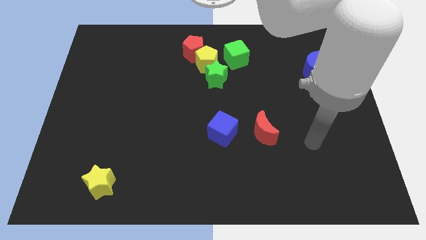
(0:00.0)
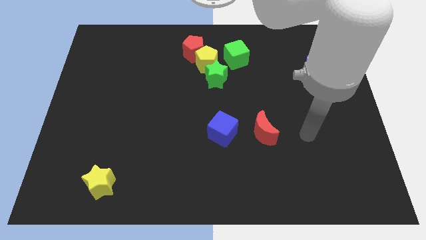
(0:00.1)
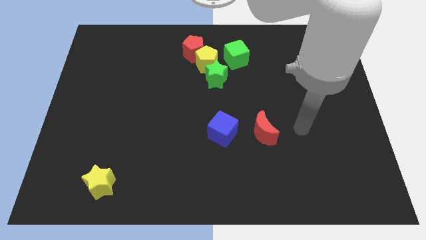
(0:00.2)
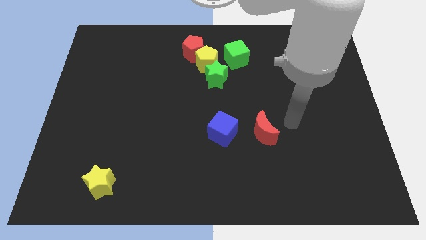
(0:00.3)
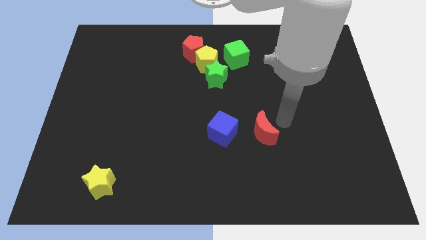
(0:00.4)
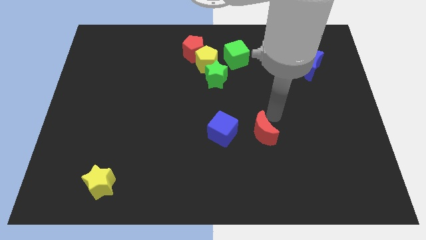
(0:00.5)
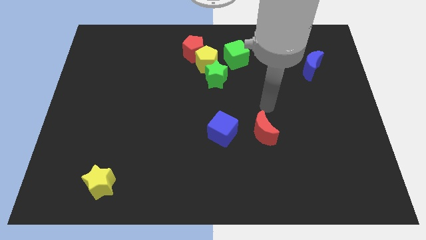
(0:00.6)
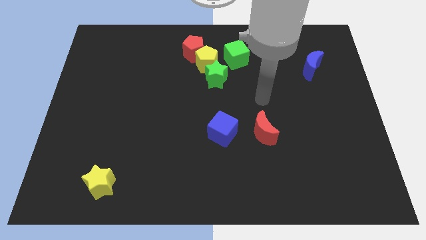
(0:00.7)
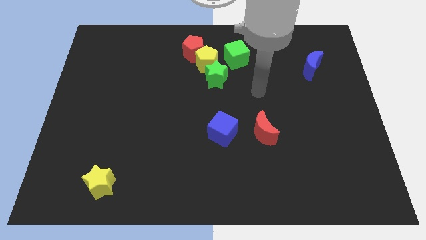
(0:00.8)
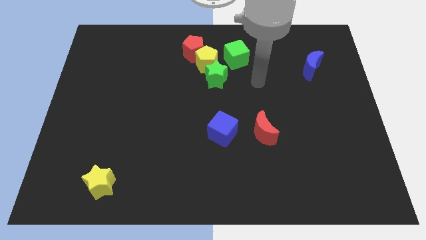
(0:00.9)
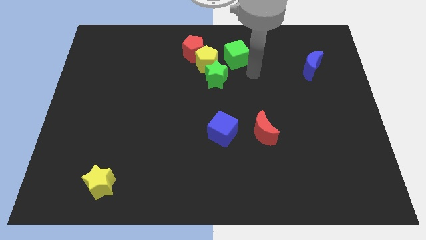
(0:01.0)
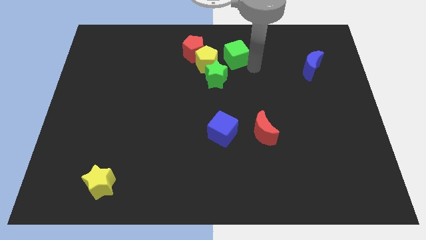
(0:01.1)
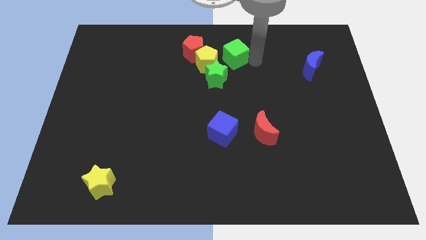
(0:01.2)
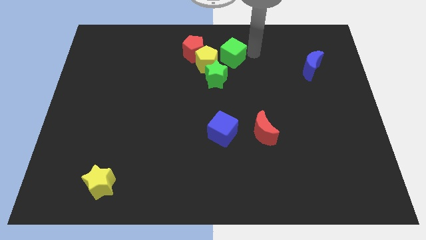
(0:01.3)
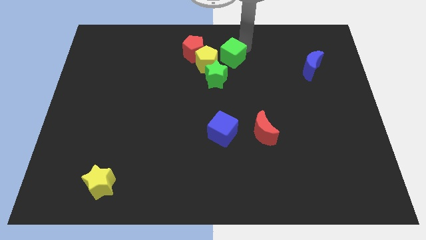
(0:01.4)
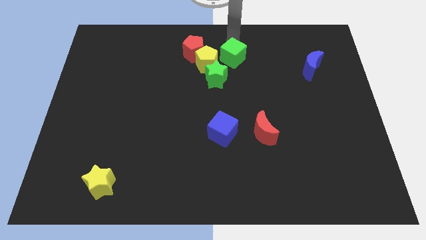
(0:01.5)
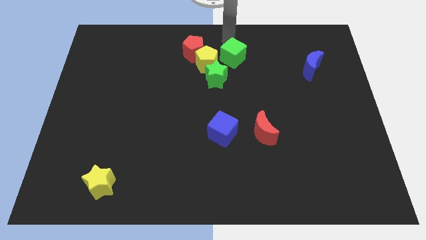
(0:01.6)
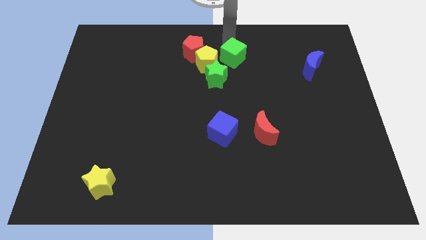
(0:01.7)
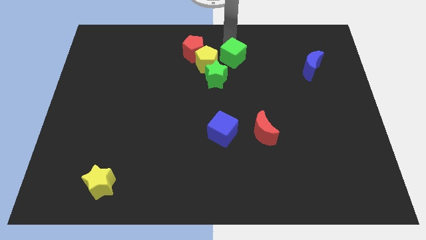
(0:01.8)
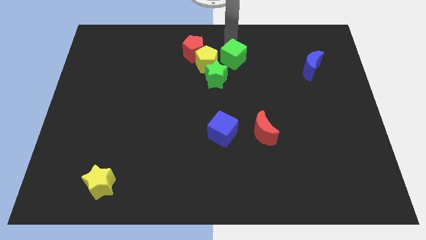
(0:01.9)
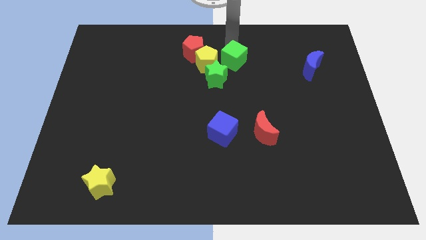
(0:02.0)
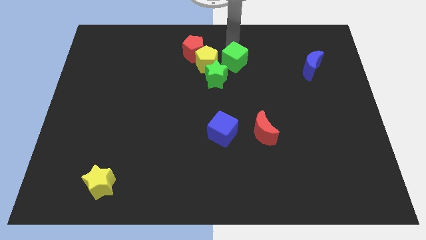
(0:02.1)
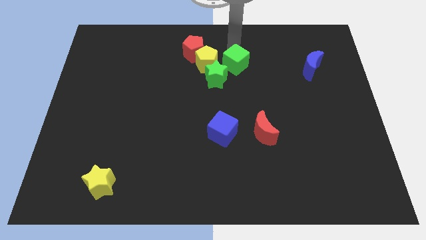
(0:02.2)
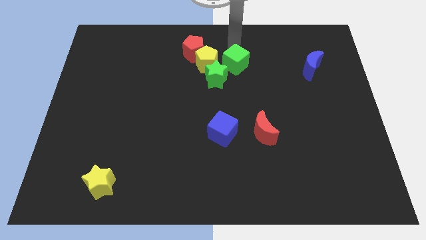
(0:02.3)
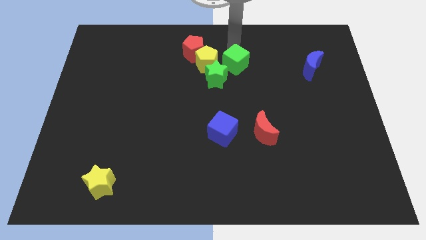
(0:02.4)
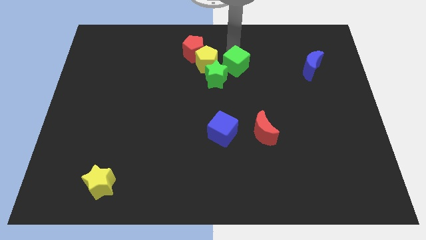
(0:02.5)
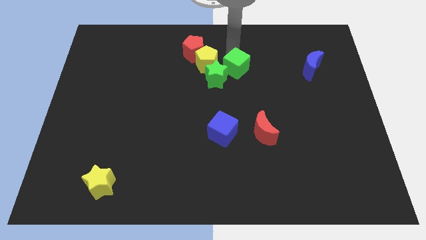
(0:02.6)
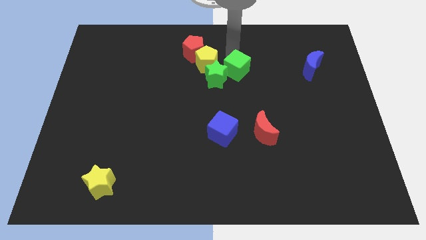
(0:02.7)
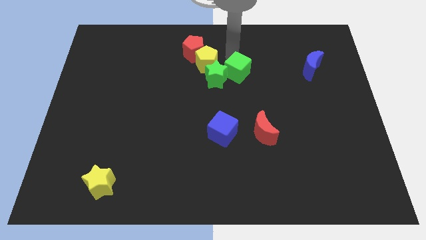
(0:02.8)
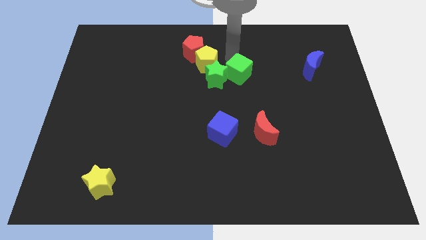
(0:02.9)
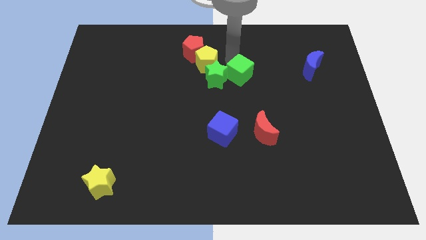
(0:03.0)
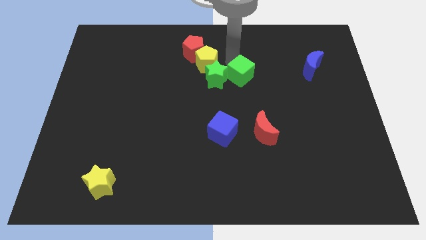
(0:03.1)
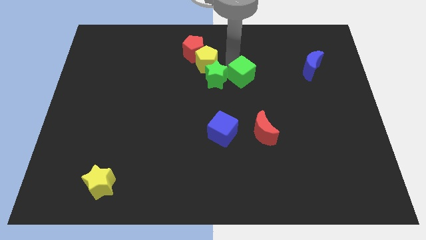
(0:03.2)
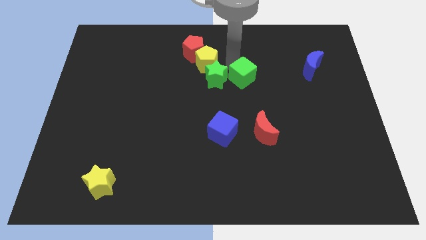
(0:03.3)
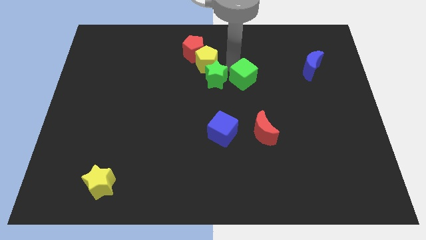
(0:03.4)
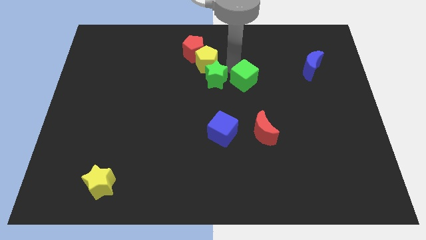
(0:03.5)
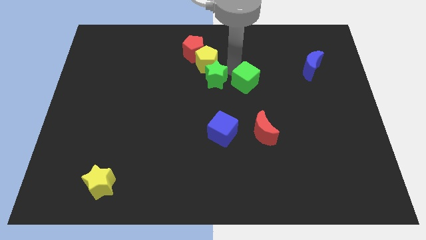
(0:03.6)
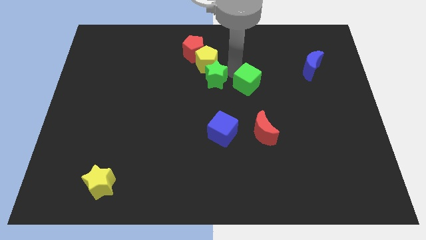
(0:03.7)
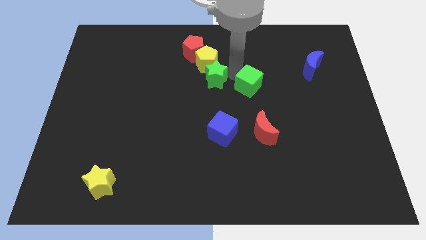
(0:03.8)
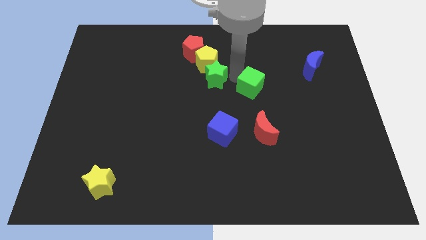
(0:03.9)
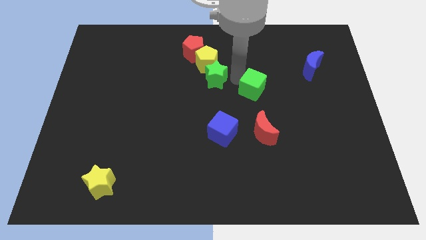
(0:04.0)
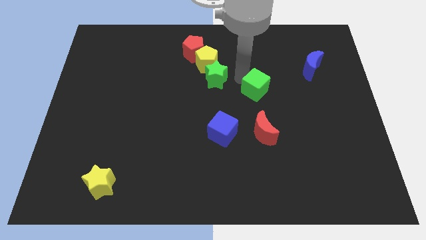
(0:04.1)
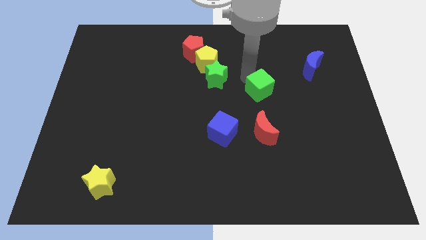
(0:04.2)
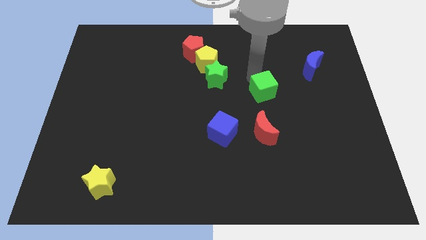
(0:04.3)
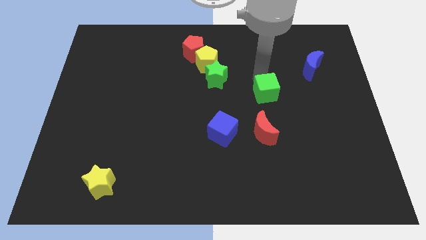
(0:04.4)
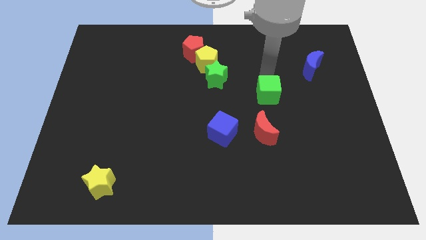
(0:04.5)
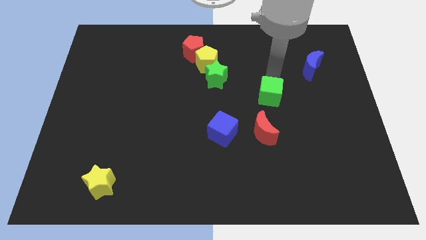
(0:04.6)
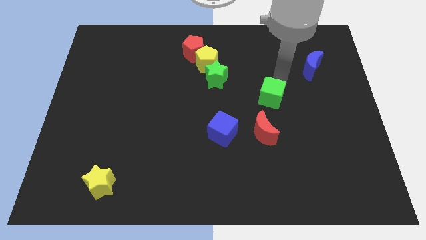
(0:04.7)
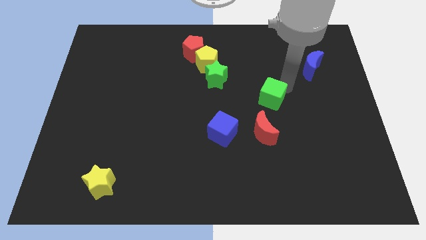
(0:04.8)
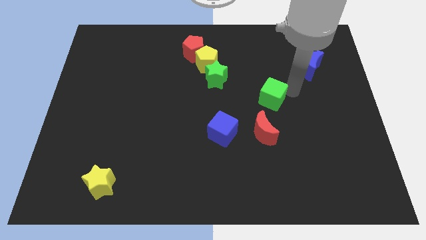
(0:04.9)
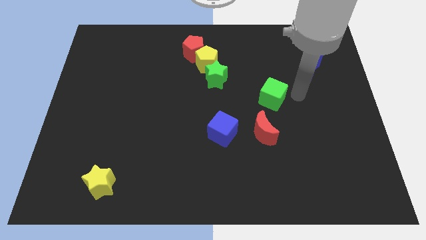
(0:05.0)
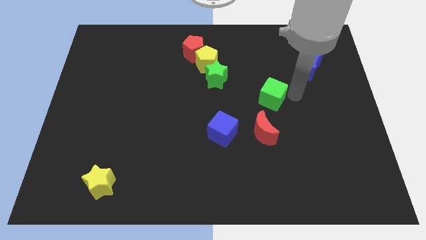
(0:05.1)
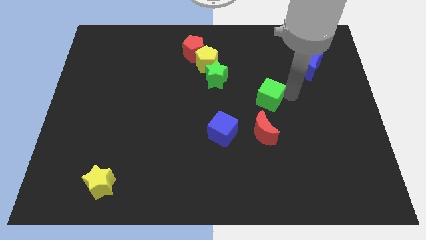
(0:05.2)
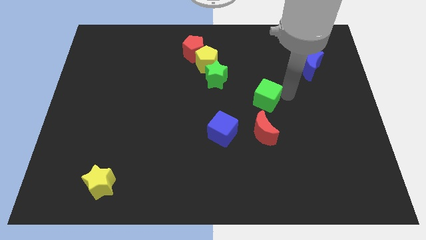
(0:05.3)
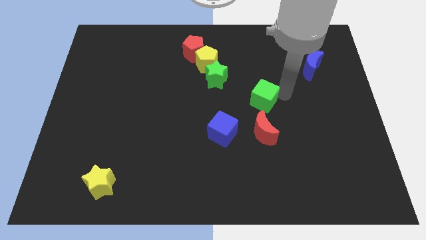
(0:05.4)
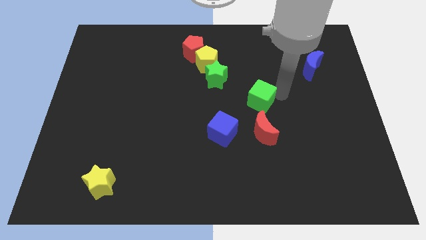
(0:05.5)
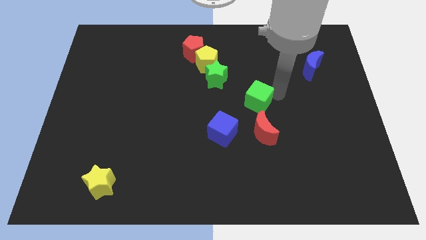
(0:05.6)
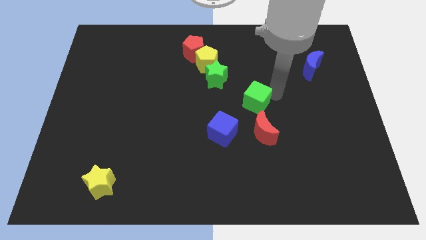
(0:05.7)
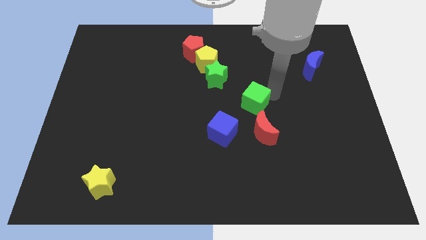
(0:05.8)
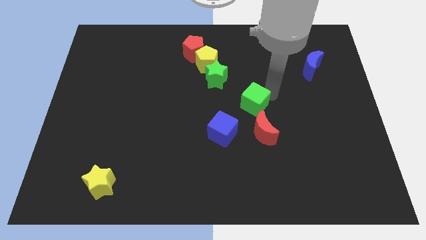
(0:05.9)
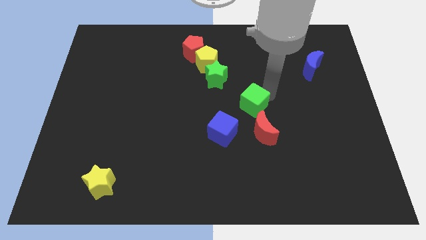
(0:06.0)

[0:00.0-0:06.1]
put the green cube diagonally up and to the left of the red moon

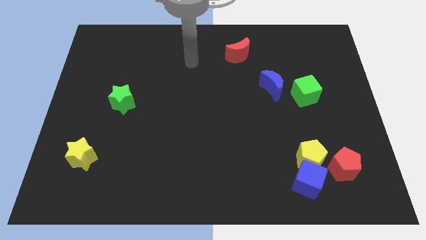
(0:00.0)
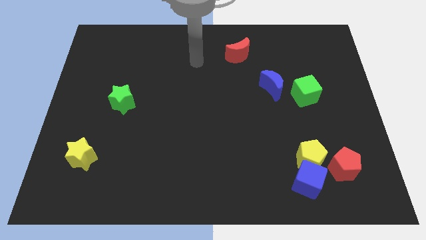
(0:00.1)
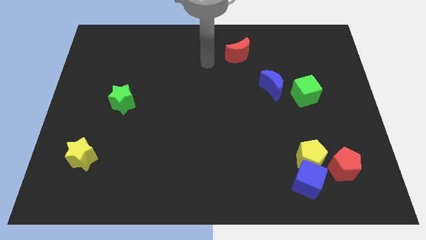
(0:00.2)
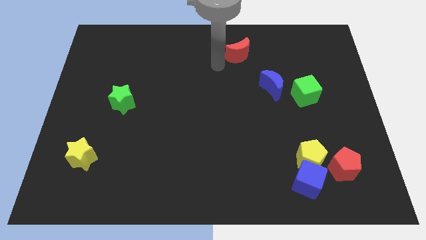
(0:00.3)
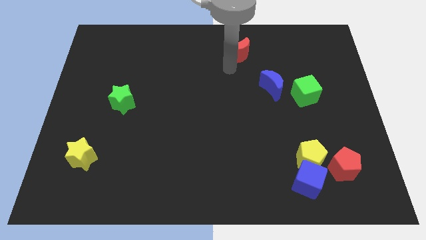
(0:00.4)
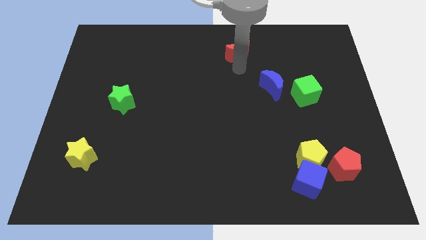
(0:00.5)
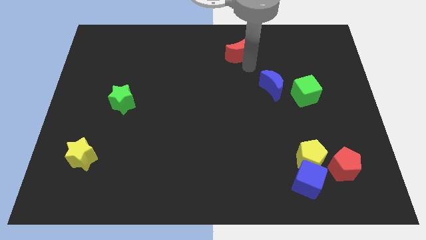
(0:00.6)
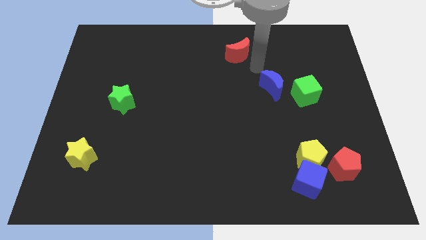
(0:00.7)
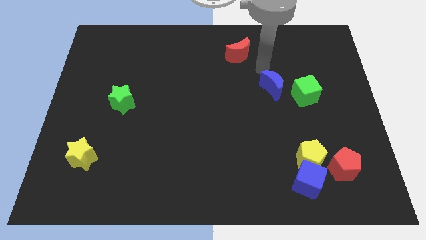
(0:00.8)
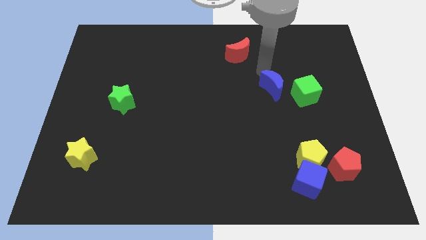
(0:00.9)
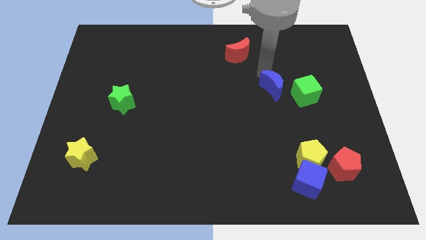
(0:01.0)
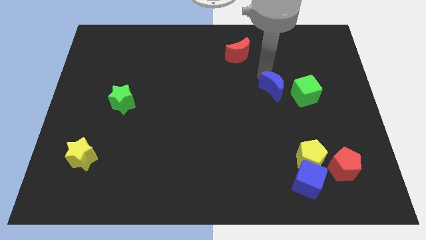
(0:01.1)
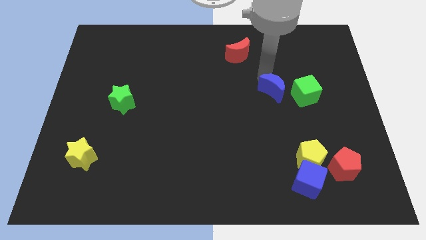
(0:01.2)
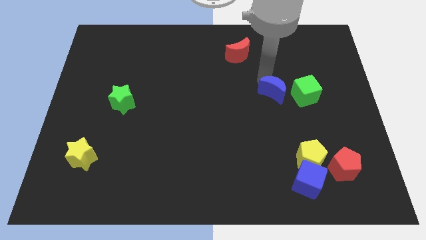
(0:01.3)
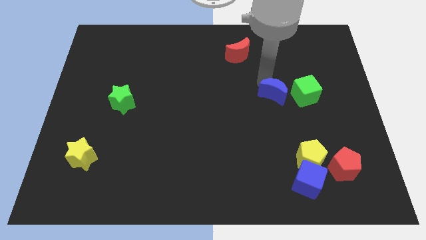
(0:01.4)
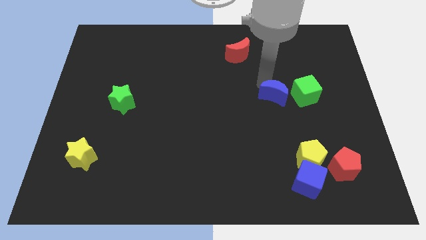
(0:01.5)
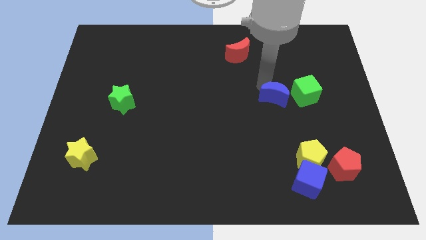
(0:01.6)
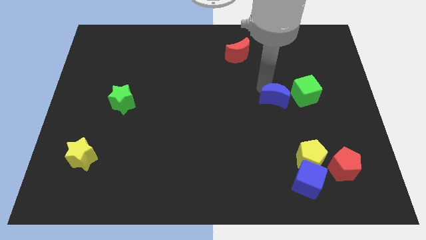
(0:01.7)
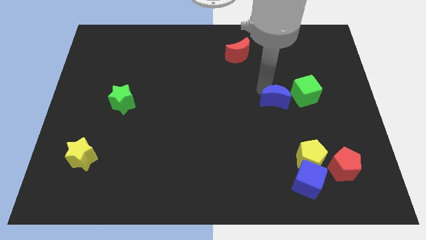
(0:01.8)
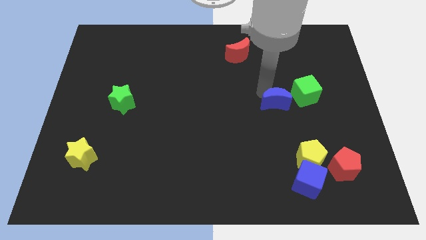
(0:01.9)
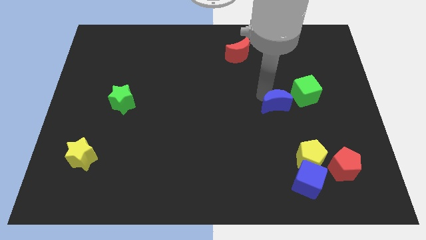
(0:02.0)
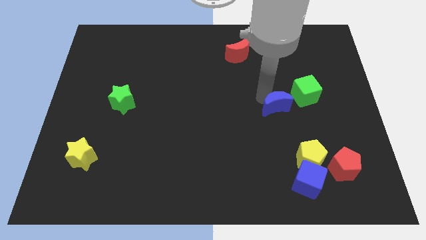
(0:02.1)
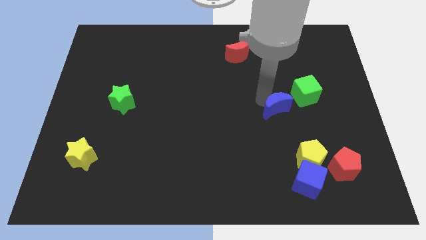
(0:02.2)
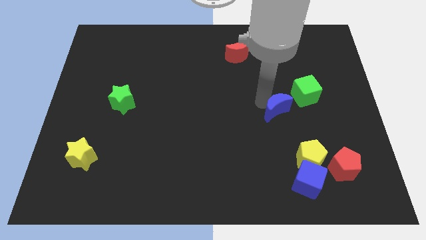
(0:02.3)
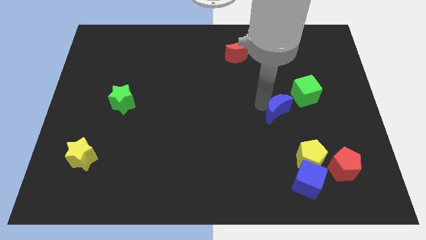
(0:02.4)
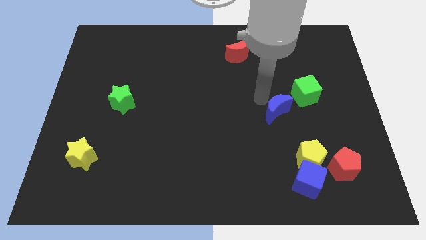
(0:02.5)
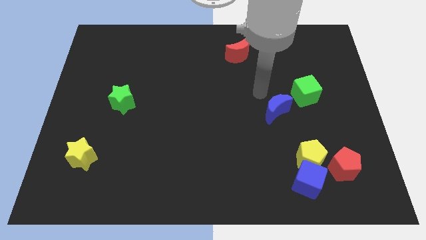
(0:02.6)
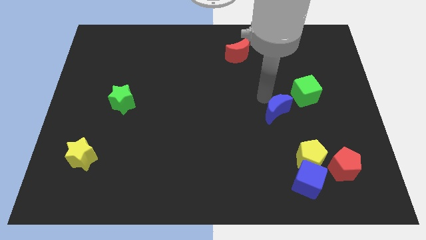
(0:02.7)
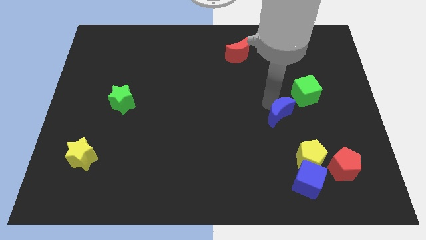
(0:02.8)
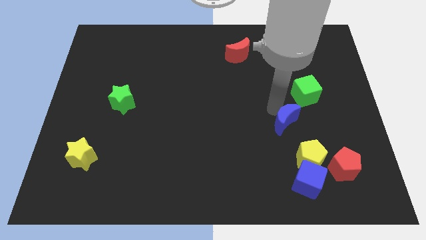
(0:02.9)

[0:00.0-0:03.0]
move the blue moon to the top of the blue cube
